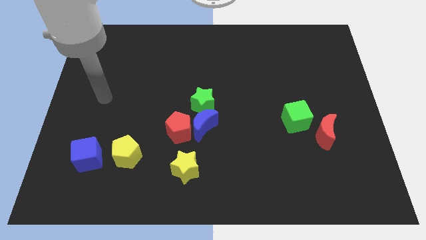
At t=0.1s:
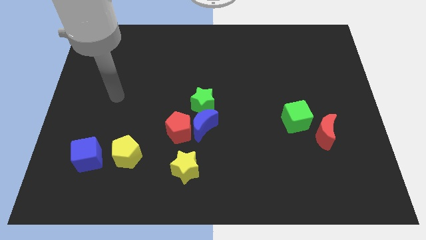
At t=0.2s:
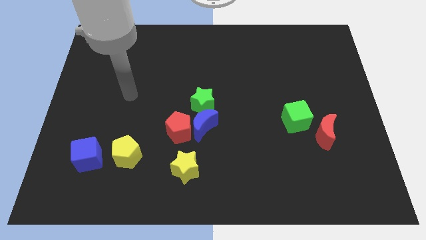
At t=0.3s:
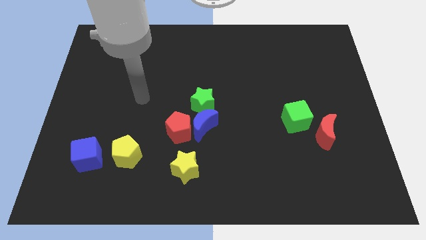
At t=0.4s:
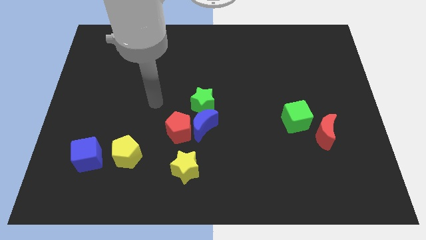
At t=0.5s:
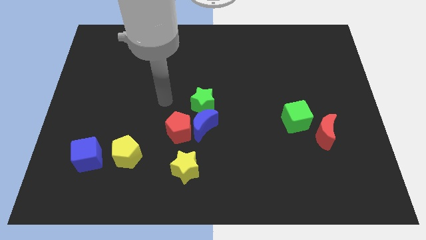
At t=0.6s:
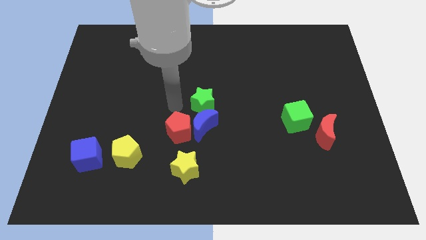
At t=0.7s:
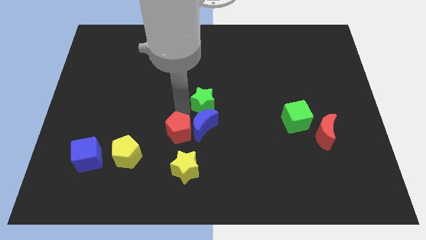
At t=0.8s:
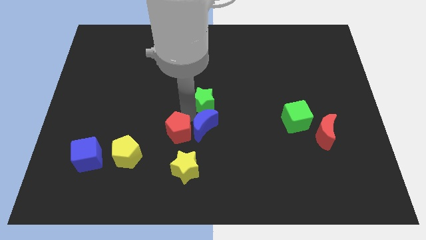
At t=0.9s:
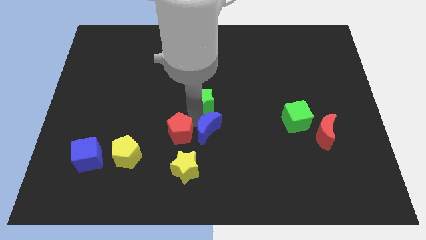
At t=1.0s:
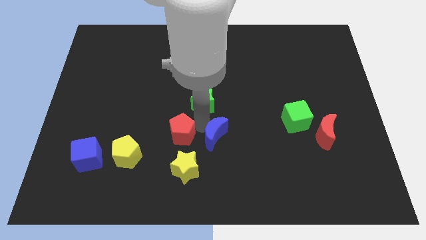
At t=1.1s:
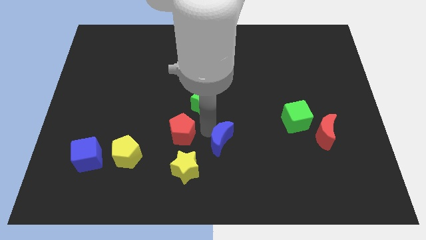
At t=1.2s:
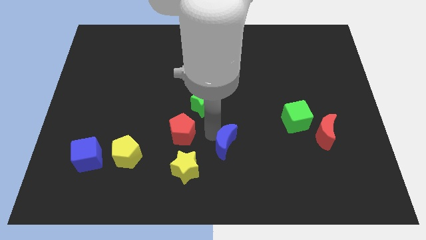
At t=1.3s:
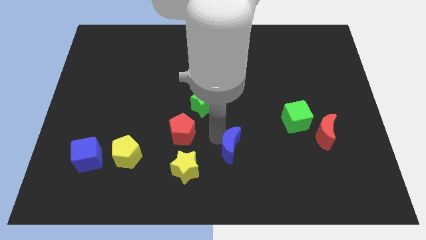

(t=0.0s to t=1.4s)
pull the blue moon apart from the red pentagon and green star

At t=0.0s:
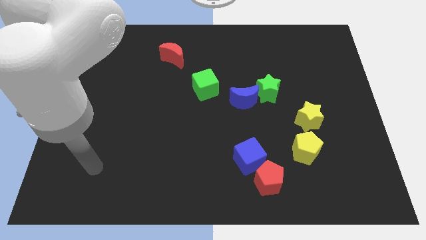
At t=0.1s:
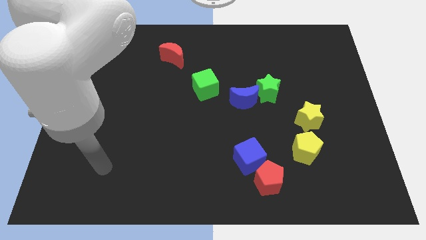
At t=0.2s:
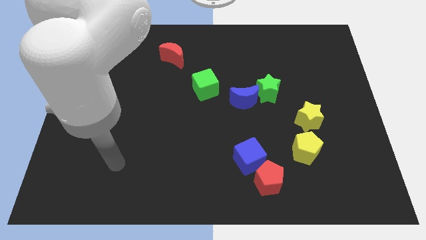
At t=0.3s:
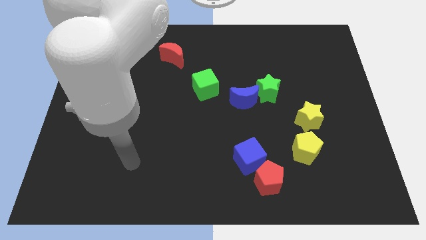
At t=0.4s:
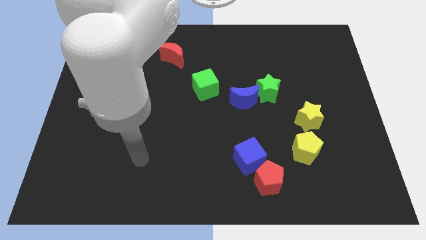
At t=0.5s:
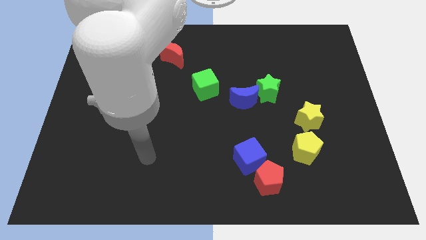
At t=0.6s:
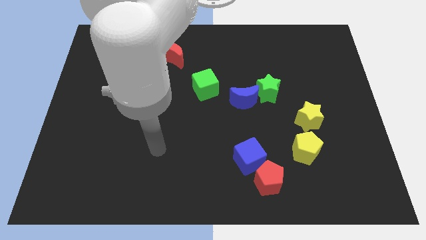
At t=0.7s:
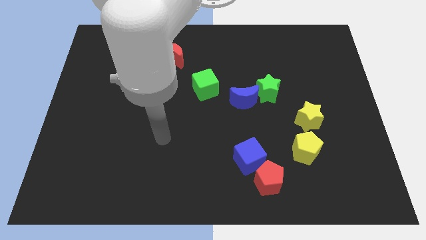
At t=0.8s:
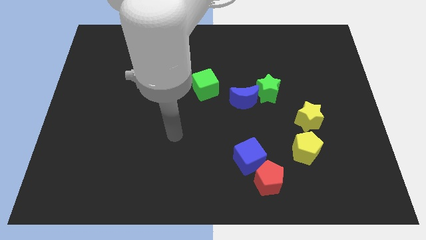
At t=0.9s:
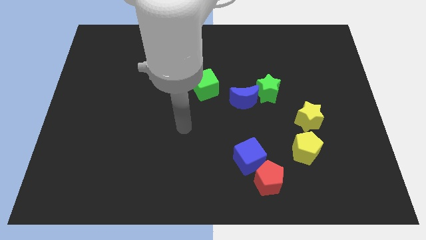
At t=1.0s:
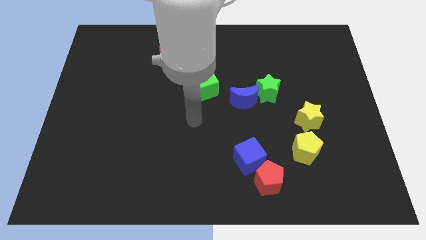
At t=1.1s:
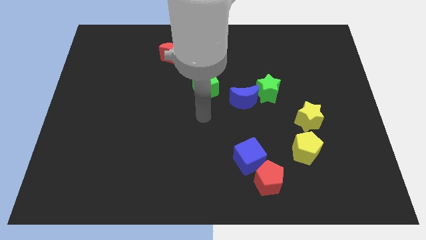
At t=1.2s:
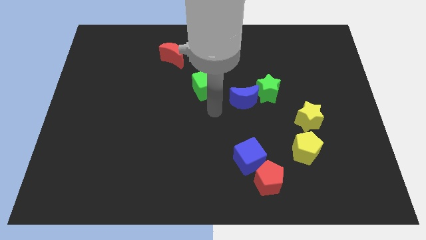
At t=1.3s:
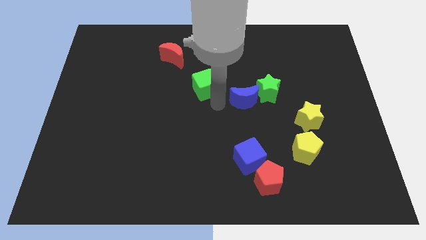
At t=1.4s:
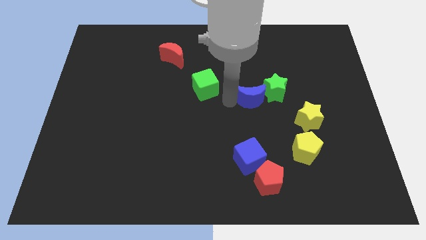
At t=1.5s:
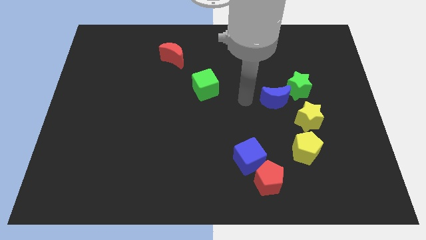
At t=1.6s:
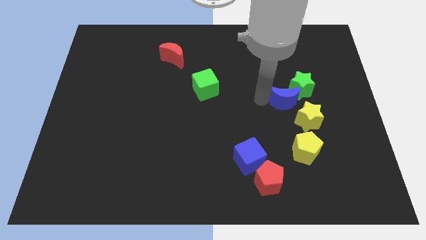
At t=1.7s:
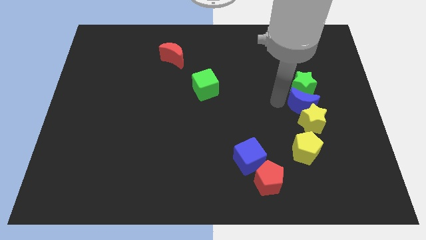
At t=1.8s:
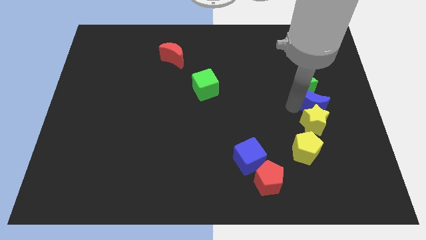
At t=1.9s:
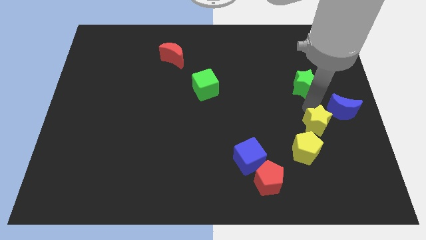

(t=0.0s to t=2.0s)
separate the green star from the blue moon

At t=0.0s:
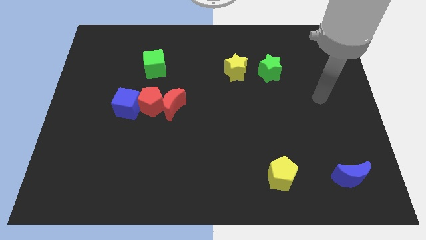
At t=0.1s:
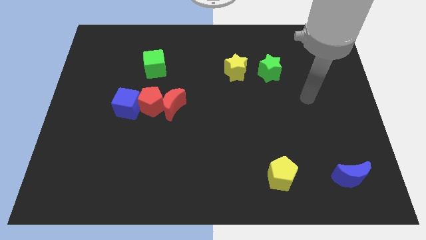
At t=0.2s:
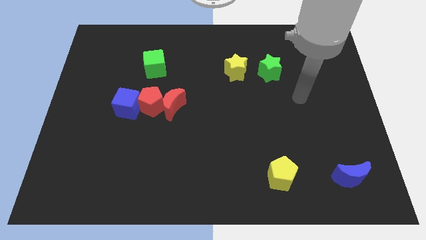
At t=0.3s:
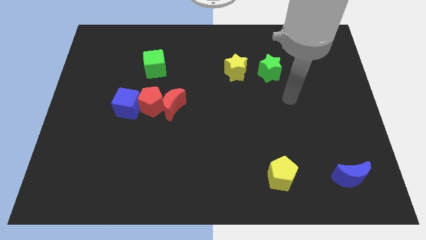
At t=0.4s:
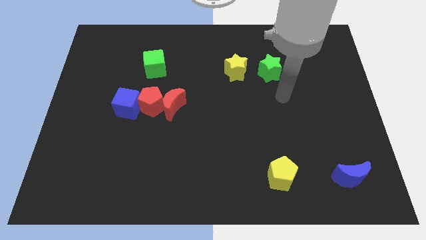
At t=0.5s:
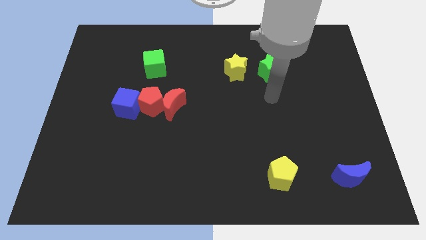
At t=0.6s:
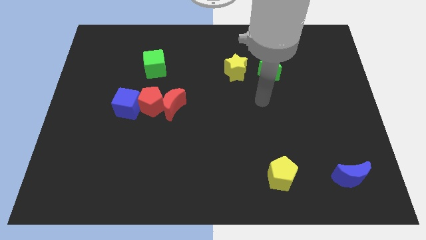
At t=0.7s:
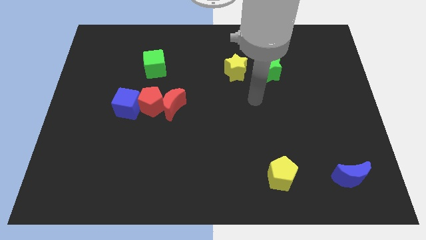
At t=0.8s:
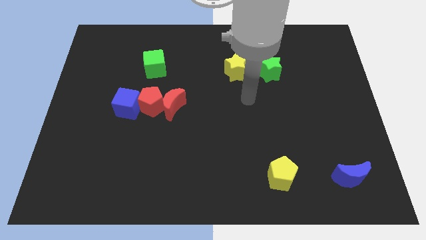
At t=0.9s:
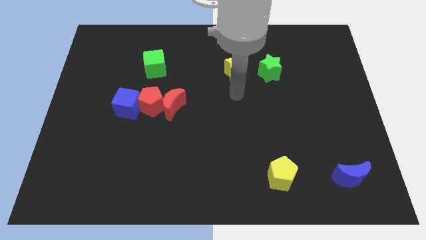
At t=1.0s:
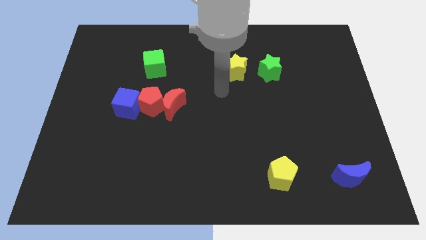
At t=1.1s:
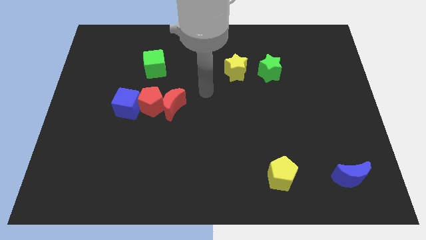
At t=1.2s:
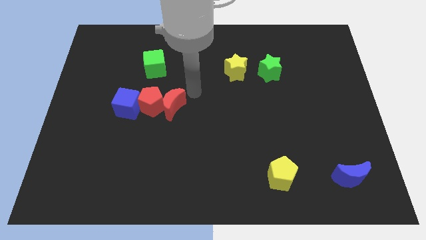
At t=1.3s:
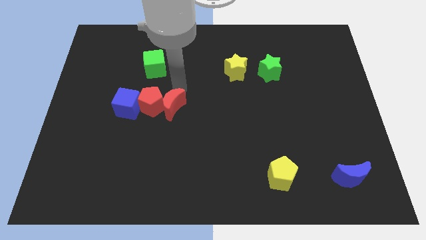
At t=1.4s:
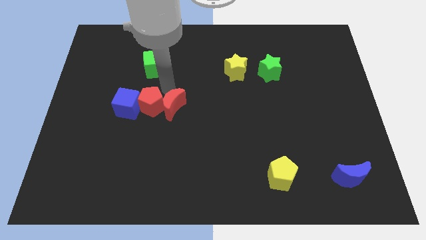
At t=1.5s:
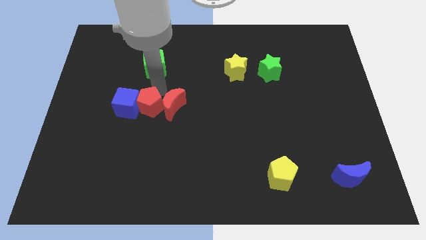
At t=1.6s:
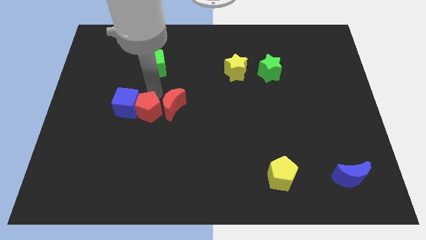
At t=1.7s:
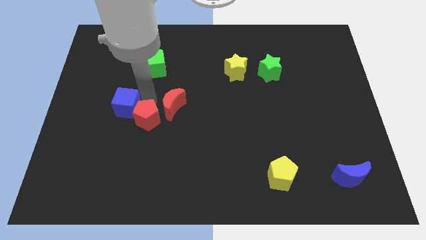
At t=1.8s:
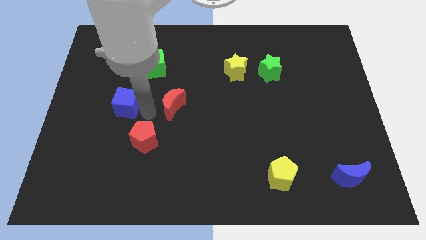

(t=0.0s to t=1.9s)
pull the red moon apart from the red pentagon

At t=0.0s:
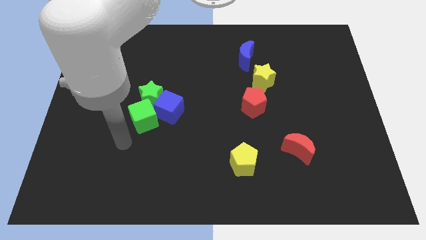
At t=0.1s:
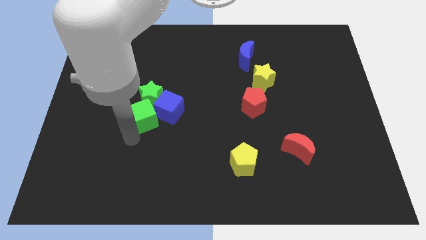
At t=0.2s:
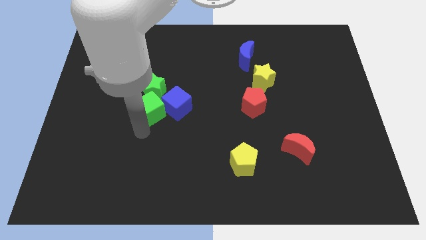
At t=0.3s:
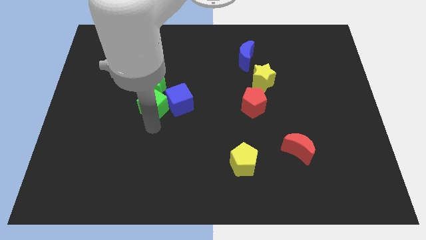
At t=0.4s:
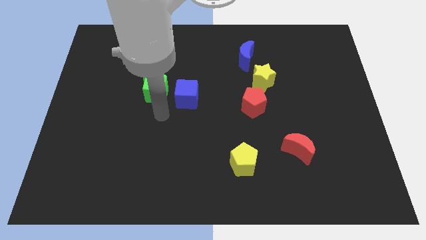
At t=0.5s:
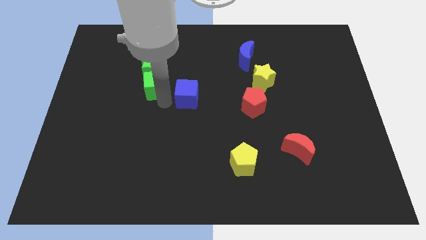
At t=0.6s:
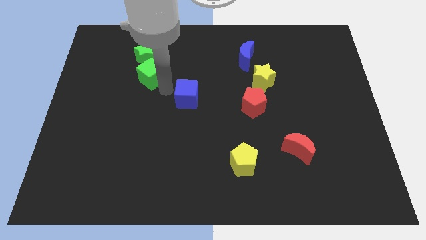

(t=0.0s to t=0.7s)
pull the green star apart from the blue cube and green cube

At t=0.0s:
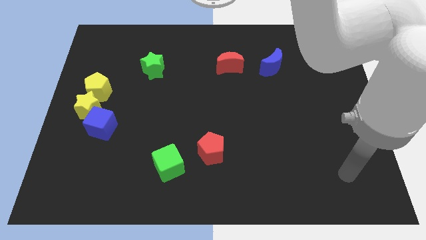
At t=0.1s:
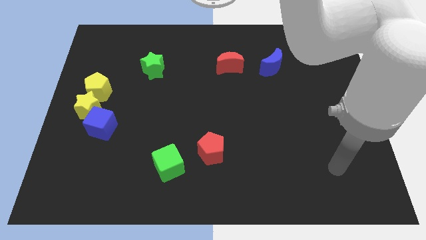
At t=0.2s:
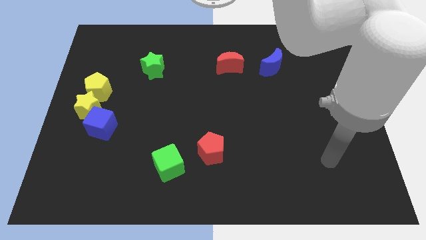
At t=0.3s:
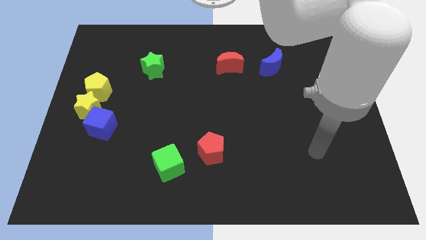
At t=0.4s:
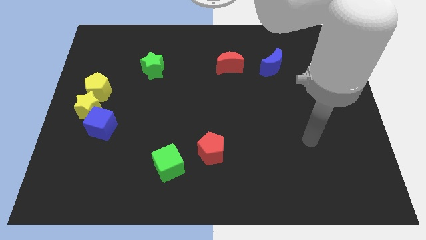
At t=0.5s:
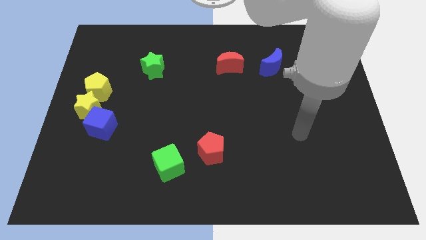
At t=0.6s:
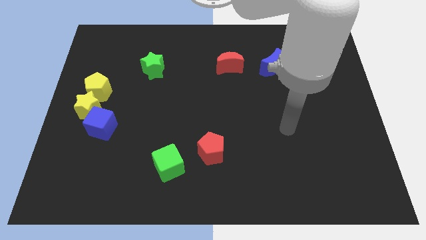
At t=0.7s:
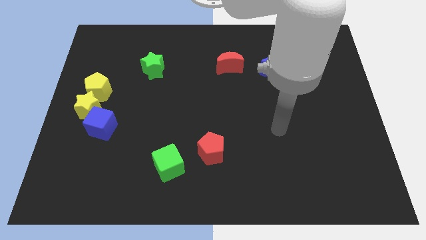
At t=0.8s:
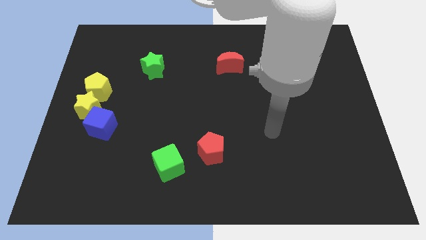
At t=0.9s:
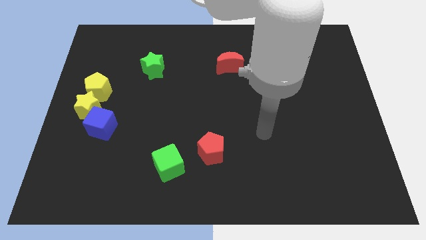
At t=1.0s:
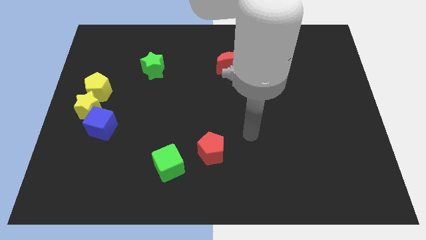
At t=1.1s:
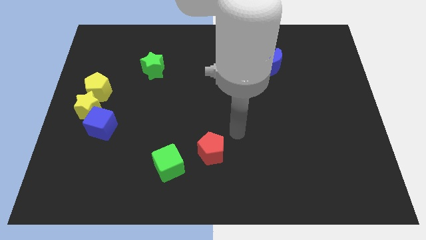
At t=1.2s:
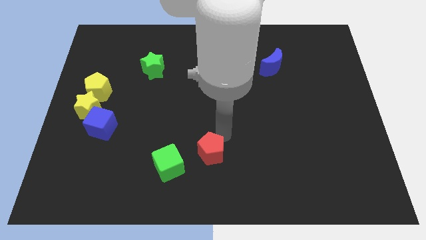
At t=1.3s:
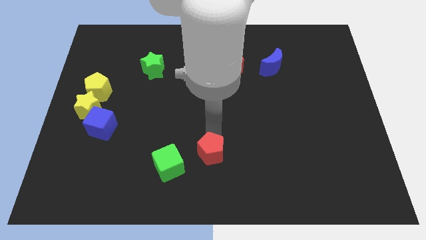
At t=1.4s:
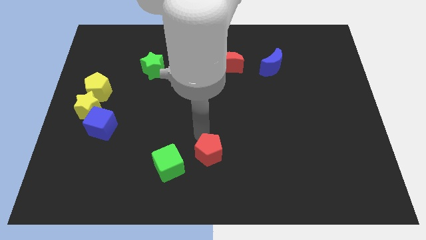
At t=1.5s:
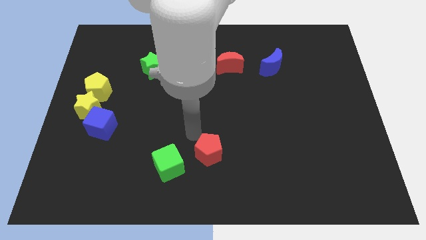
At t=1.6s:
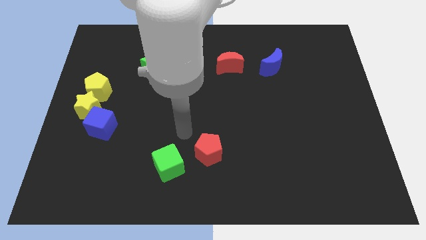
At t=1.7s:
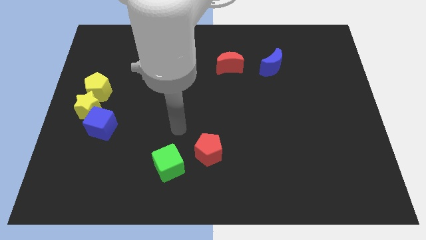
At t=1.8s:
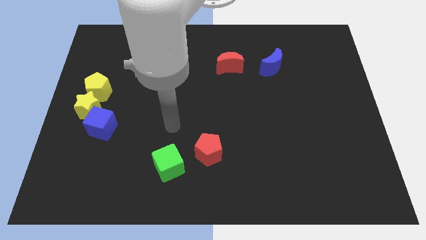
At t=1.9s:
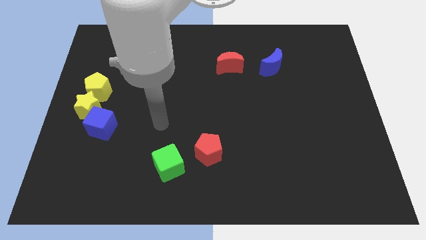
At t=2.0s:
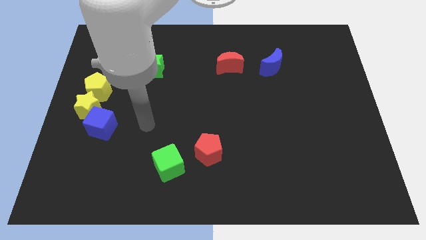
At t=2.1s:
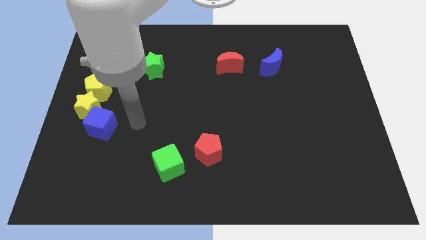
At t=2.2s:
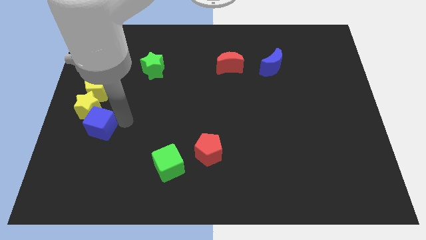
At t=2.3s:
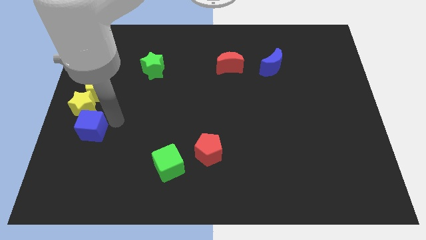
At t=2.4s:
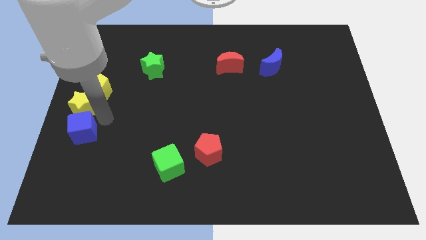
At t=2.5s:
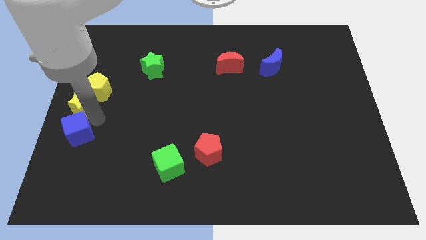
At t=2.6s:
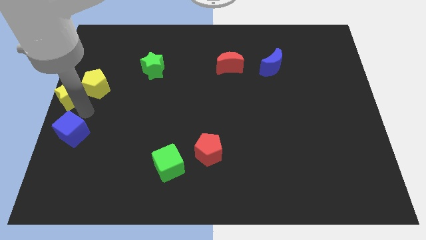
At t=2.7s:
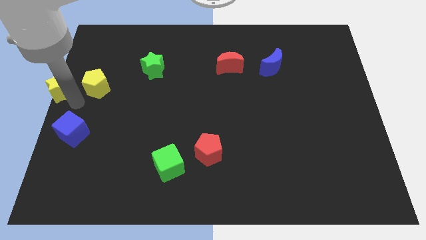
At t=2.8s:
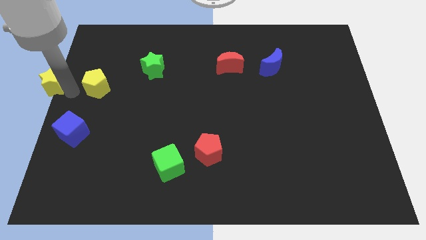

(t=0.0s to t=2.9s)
pull the yellow pentagon apart from the yellow star

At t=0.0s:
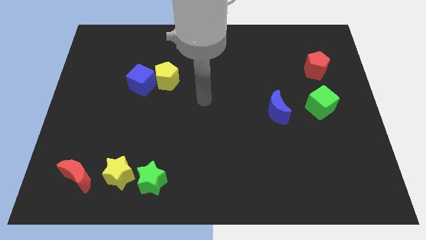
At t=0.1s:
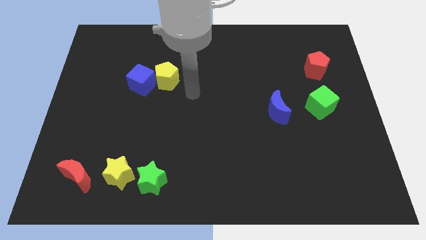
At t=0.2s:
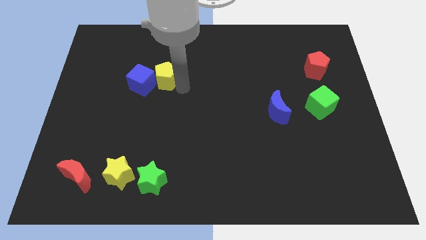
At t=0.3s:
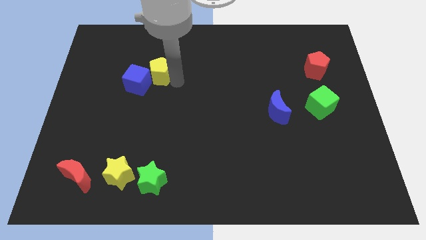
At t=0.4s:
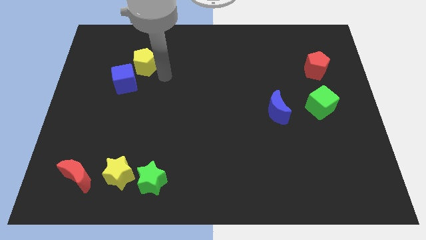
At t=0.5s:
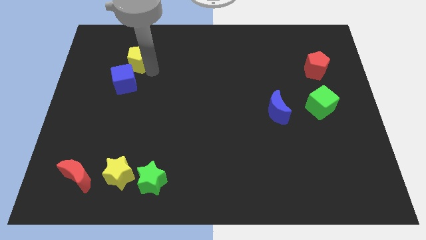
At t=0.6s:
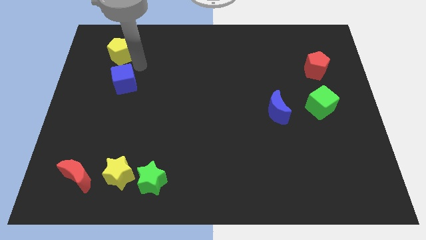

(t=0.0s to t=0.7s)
separate the blue cube from the yellow pentagon
